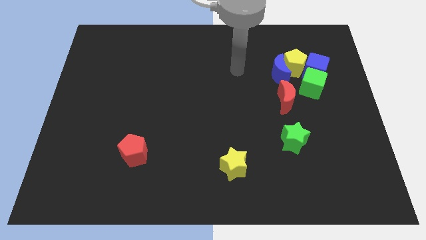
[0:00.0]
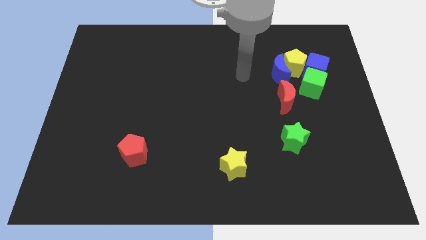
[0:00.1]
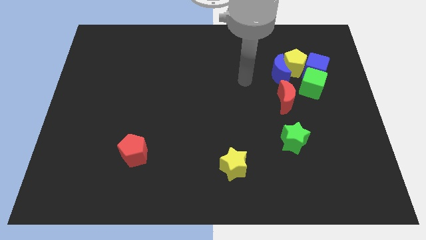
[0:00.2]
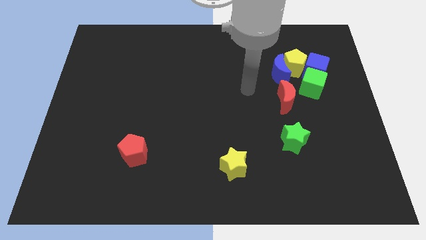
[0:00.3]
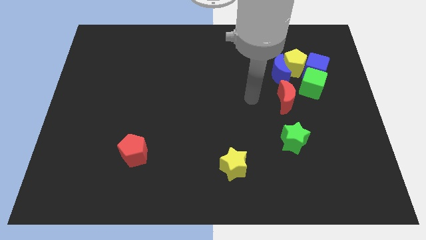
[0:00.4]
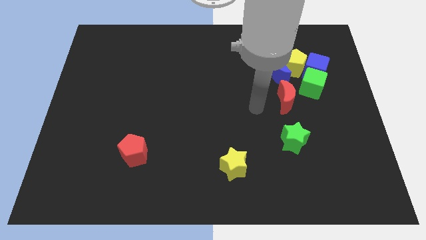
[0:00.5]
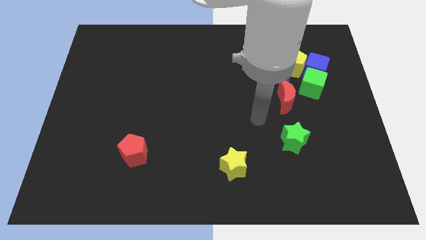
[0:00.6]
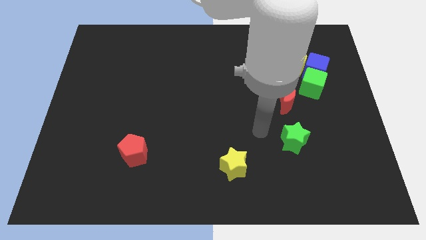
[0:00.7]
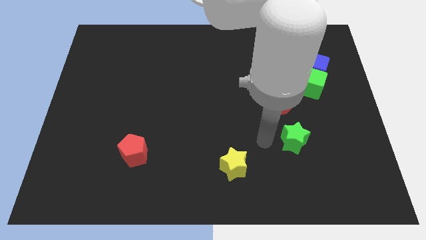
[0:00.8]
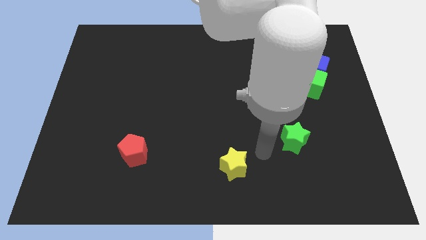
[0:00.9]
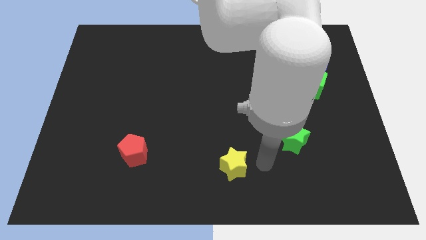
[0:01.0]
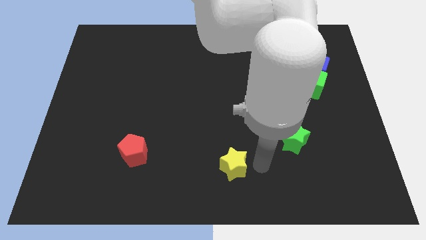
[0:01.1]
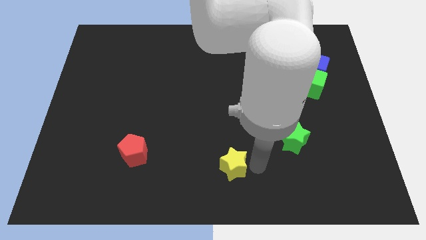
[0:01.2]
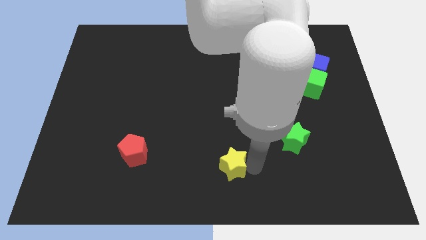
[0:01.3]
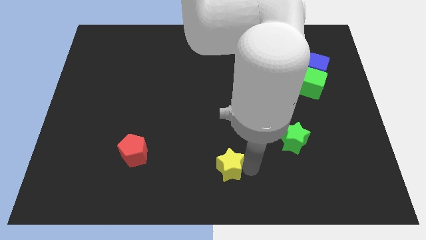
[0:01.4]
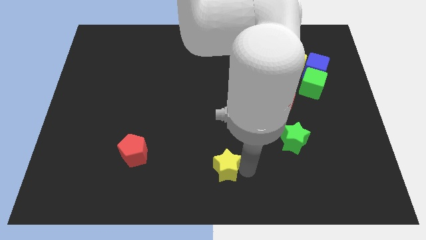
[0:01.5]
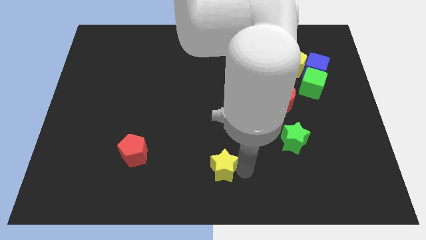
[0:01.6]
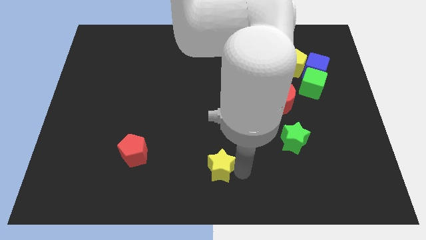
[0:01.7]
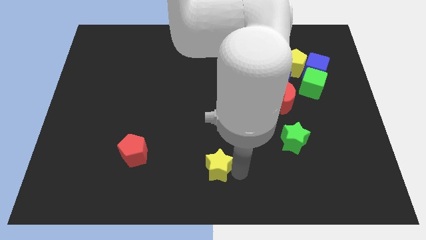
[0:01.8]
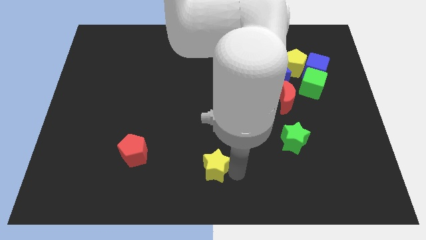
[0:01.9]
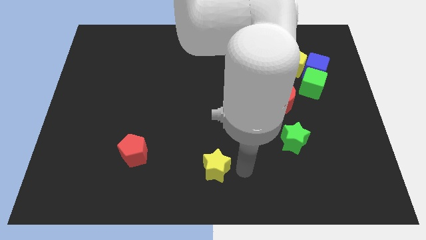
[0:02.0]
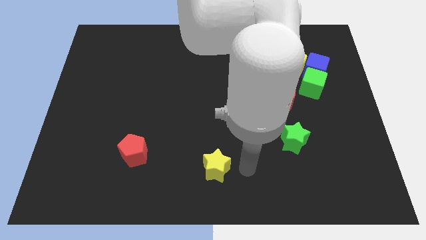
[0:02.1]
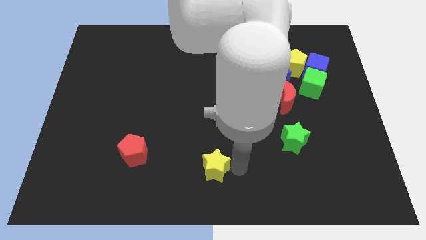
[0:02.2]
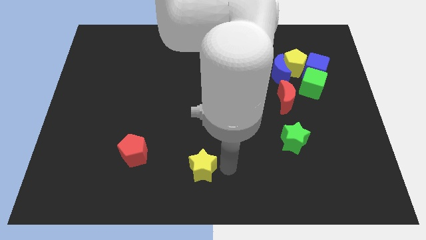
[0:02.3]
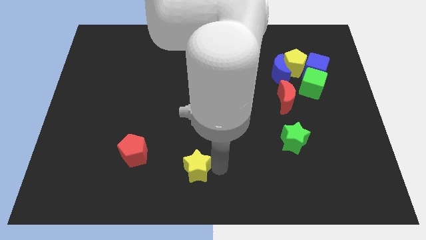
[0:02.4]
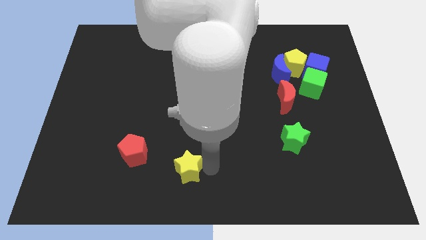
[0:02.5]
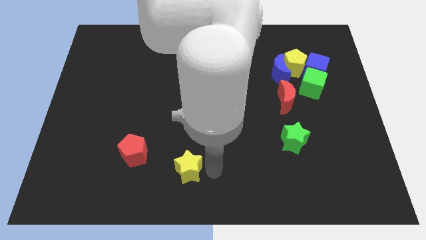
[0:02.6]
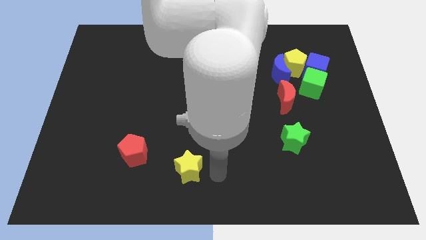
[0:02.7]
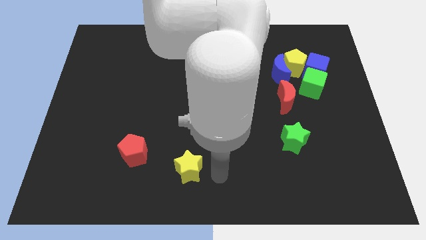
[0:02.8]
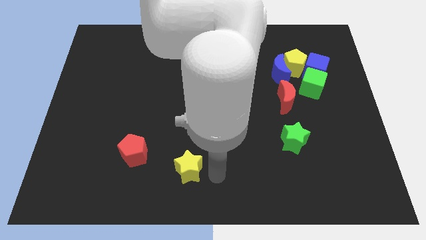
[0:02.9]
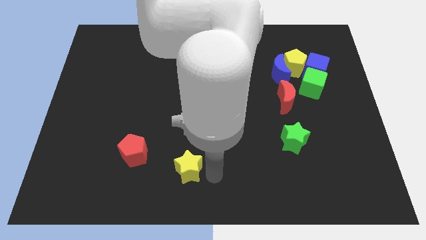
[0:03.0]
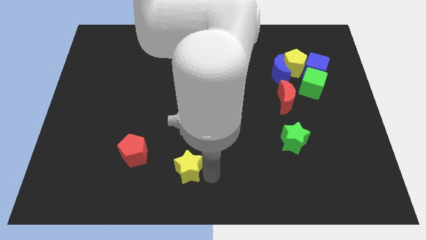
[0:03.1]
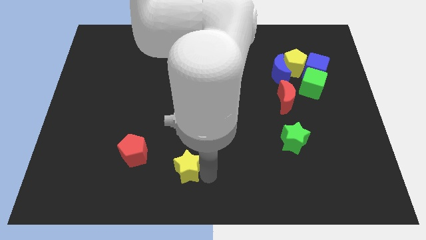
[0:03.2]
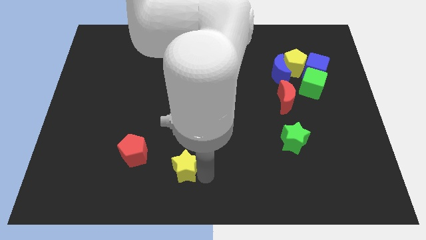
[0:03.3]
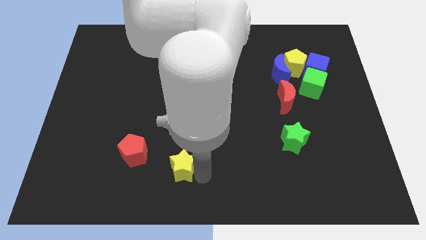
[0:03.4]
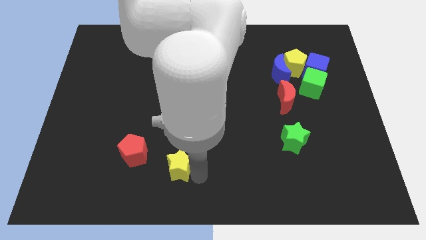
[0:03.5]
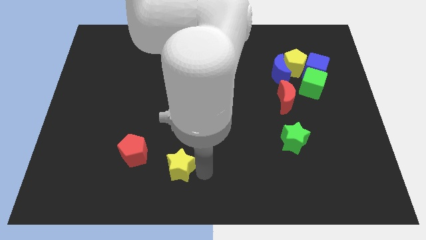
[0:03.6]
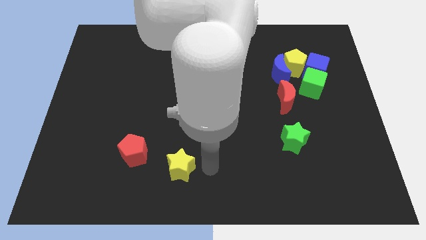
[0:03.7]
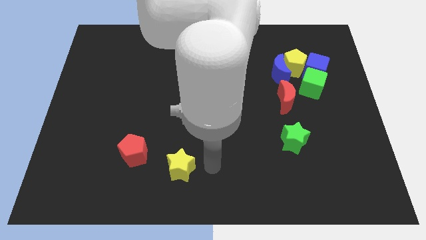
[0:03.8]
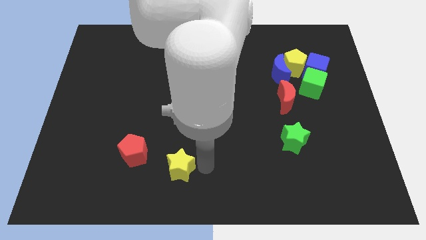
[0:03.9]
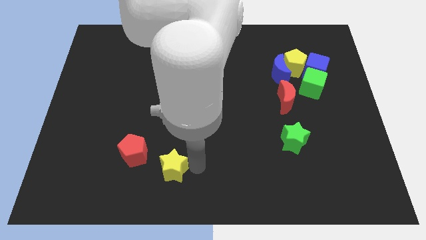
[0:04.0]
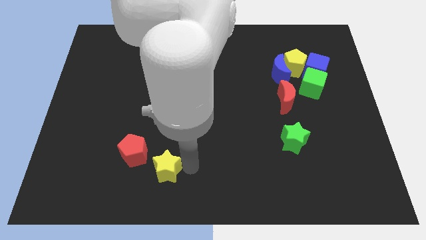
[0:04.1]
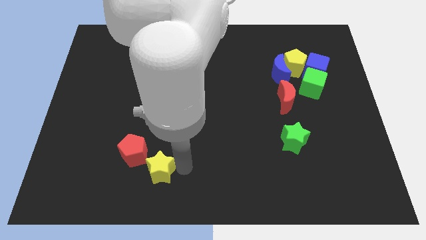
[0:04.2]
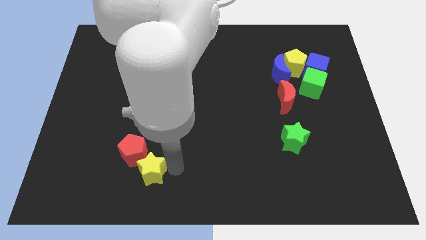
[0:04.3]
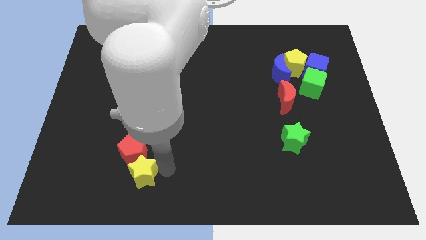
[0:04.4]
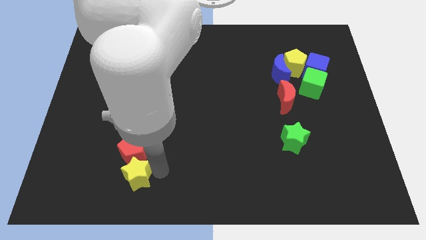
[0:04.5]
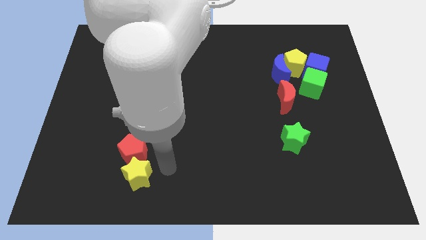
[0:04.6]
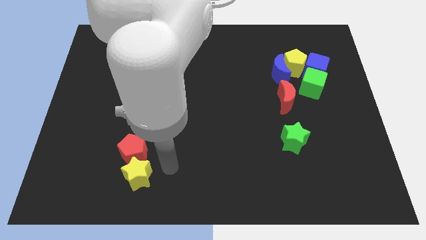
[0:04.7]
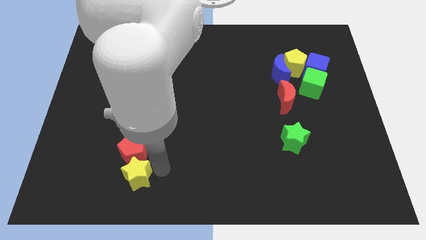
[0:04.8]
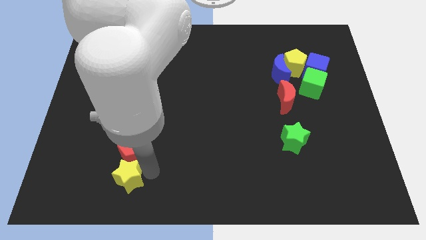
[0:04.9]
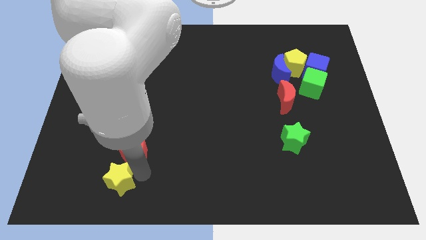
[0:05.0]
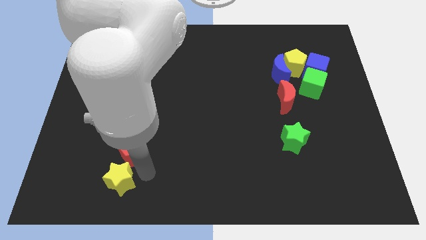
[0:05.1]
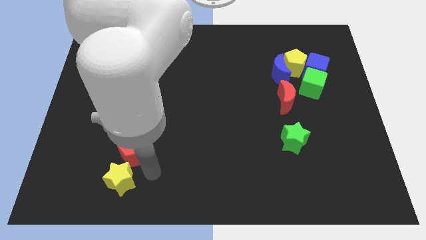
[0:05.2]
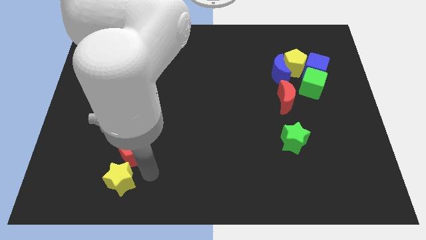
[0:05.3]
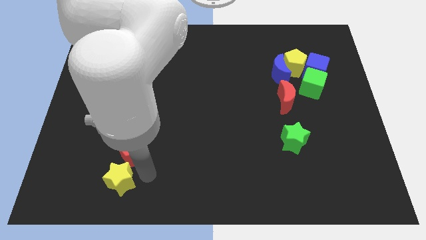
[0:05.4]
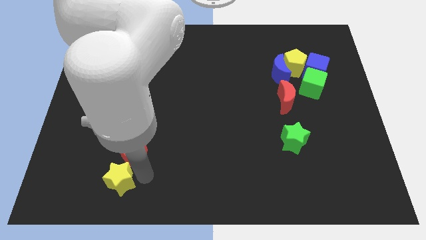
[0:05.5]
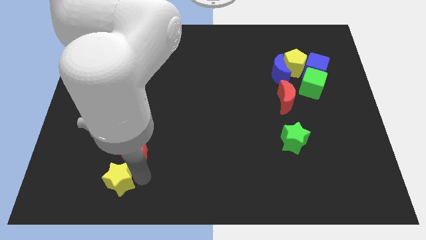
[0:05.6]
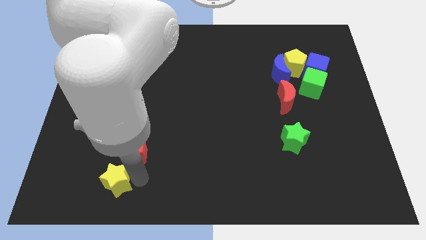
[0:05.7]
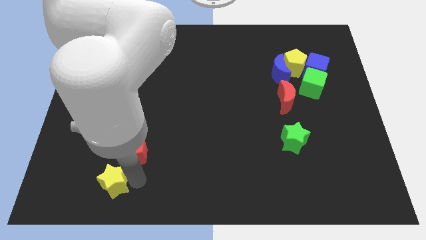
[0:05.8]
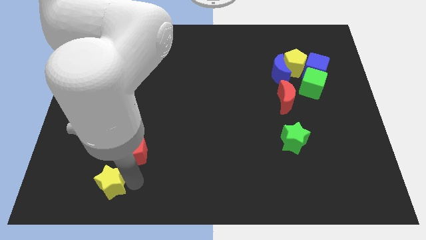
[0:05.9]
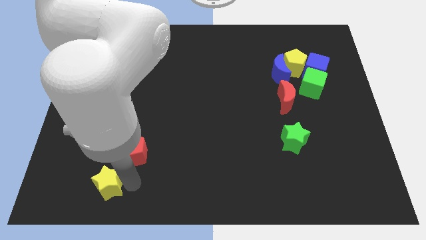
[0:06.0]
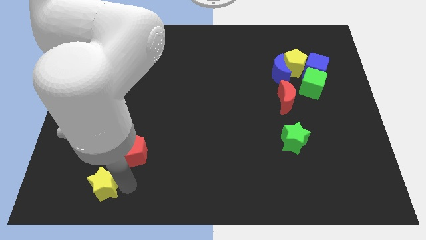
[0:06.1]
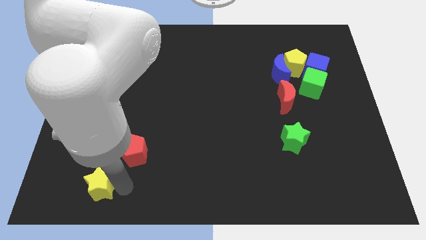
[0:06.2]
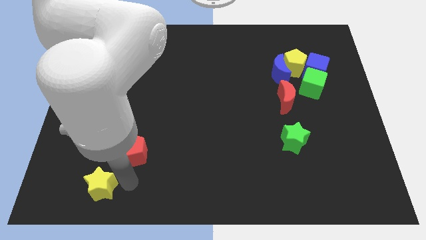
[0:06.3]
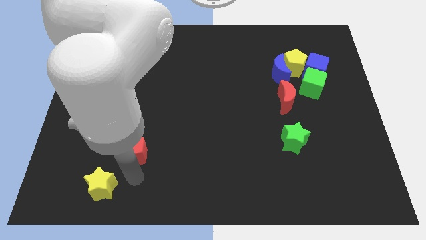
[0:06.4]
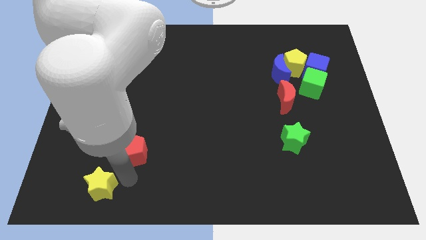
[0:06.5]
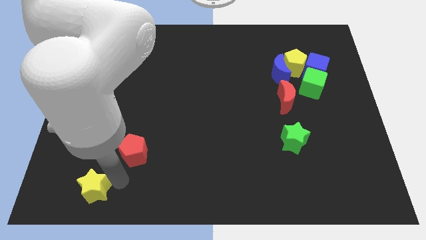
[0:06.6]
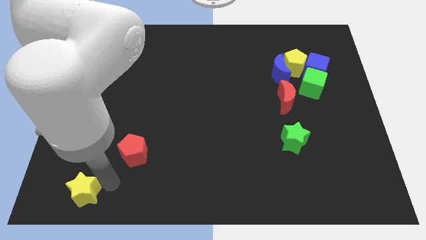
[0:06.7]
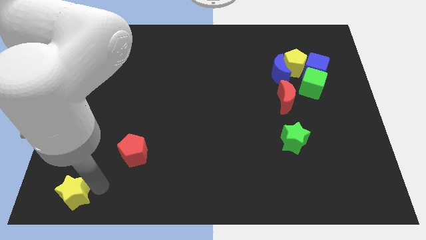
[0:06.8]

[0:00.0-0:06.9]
move the yellow star to the bottom left of the board

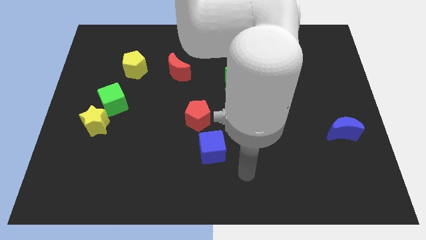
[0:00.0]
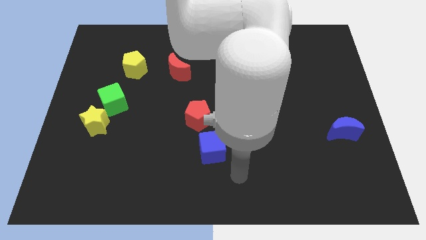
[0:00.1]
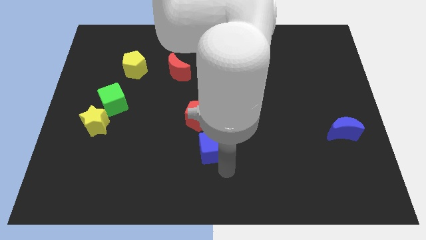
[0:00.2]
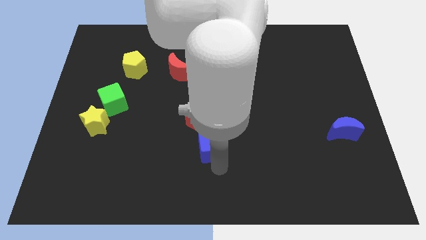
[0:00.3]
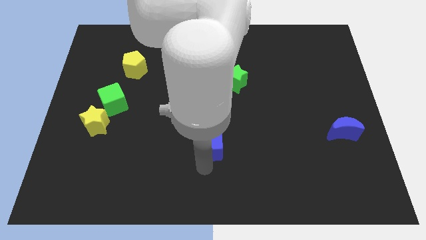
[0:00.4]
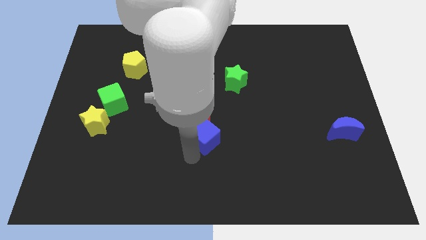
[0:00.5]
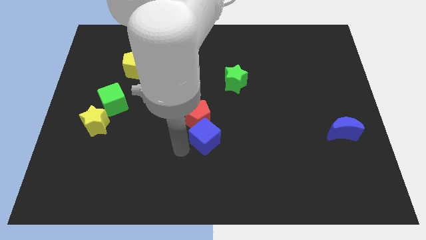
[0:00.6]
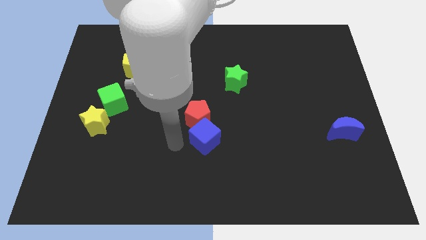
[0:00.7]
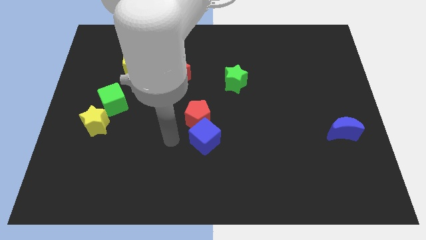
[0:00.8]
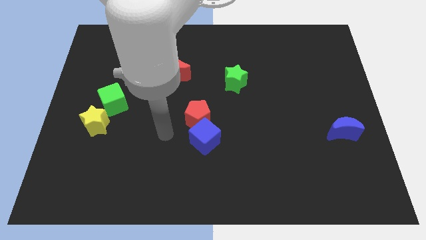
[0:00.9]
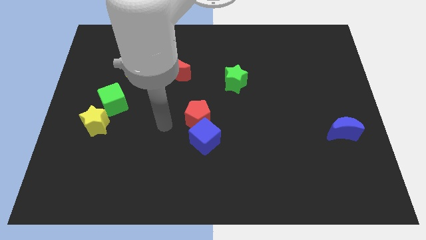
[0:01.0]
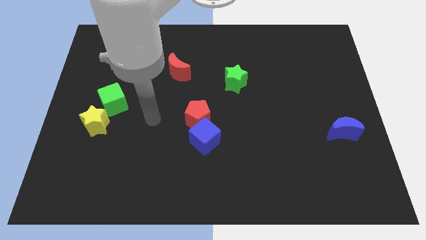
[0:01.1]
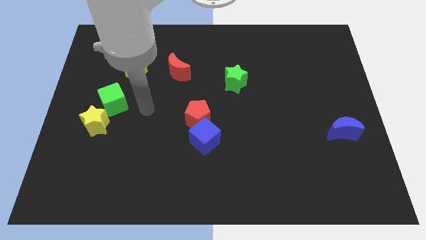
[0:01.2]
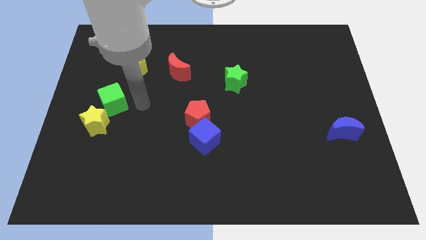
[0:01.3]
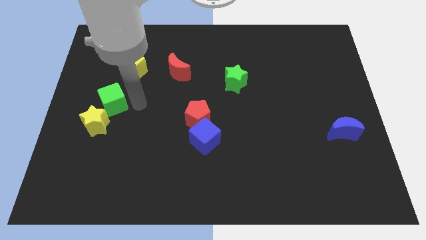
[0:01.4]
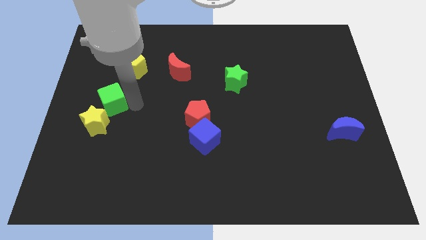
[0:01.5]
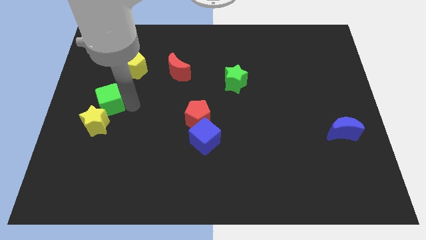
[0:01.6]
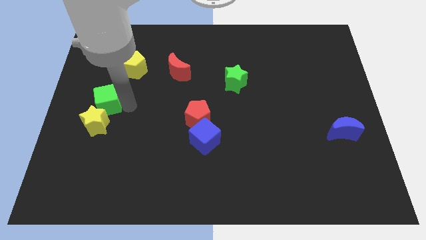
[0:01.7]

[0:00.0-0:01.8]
slide the green cube to the center left
